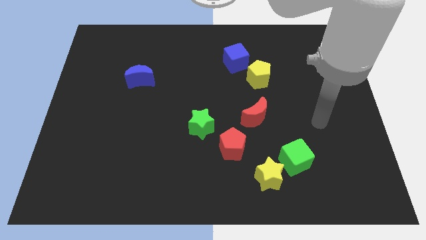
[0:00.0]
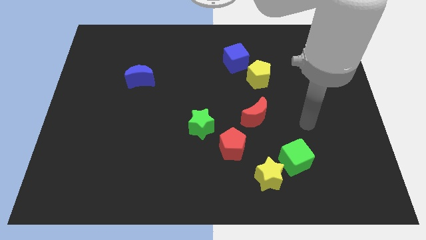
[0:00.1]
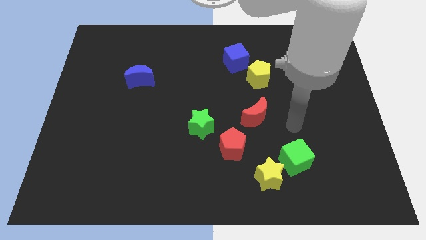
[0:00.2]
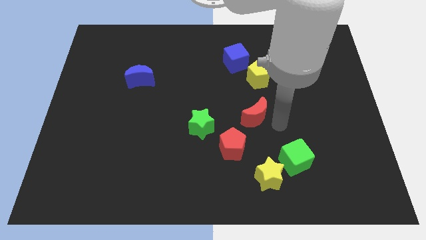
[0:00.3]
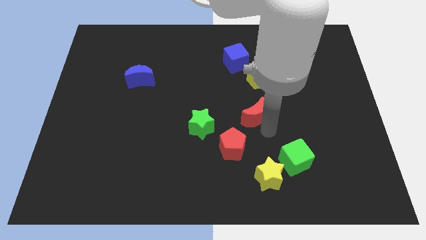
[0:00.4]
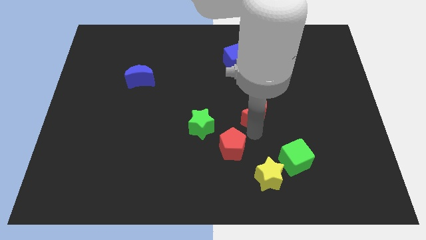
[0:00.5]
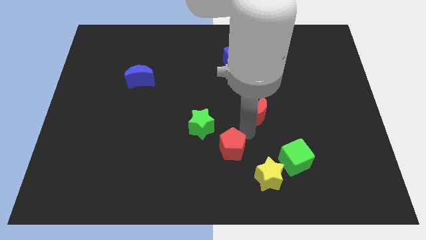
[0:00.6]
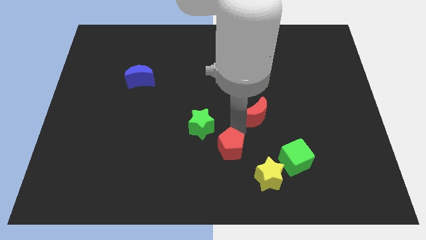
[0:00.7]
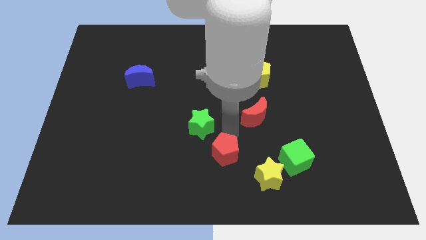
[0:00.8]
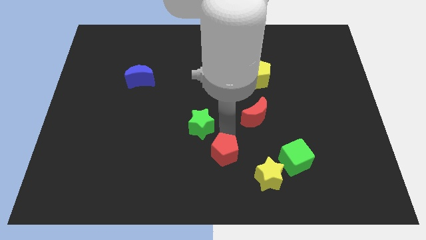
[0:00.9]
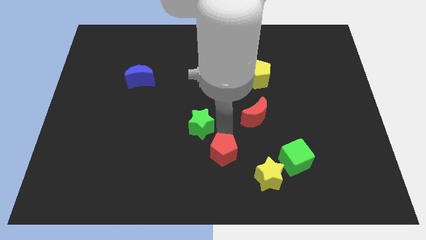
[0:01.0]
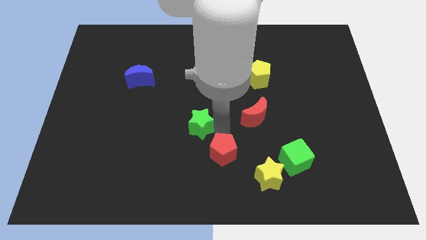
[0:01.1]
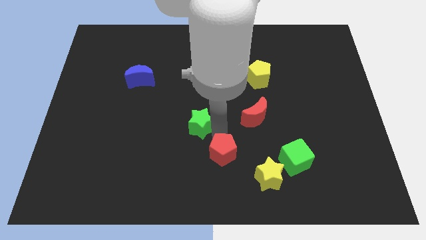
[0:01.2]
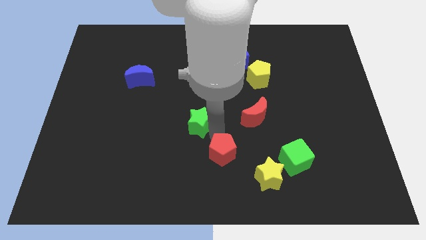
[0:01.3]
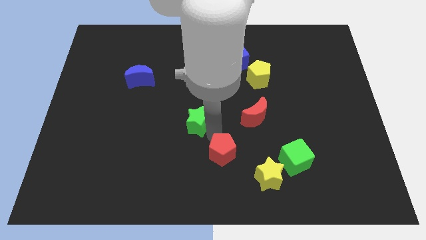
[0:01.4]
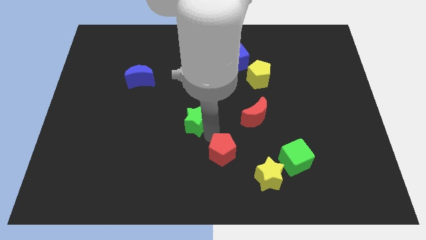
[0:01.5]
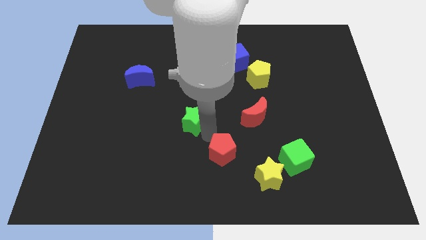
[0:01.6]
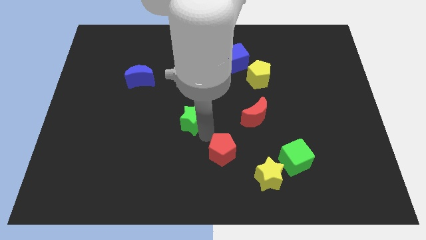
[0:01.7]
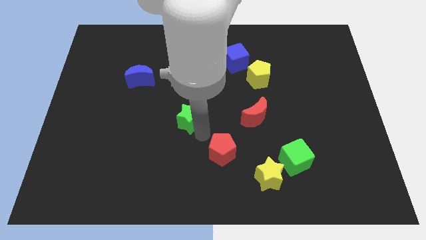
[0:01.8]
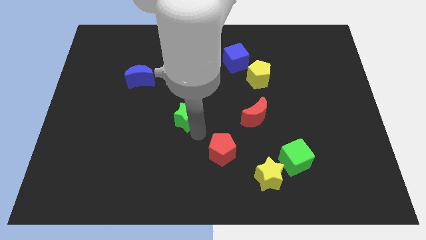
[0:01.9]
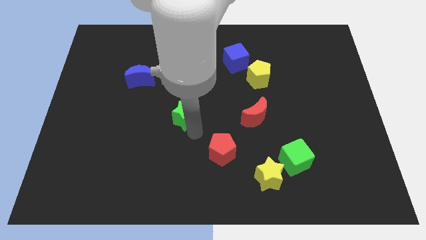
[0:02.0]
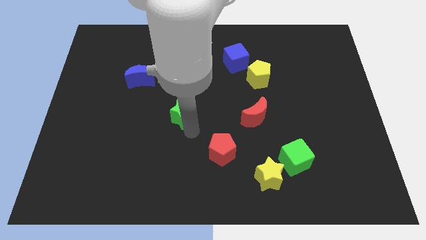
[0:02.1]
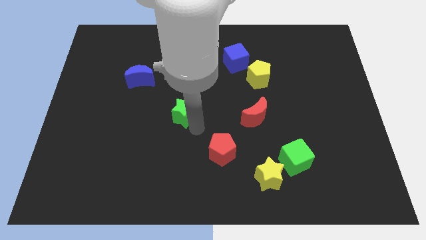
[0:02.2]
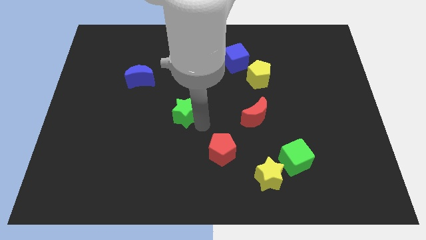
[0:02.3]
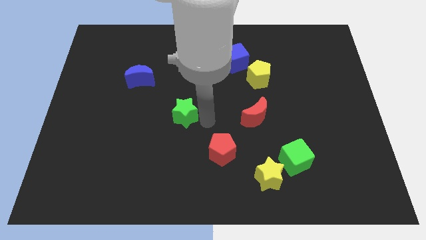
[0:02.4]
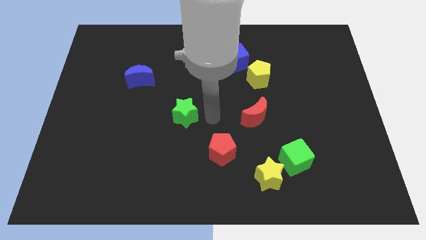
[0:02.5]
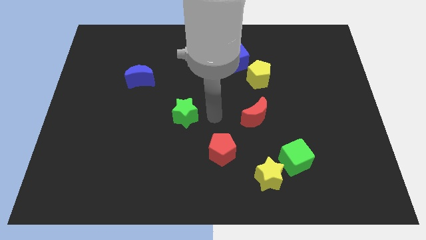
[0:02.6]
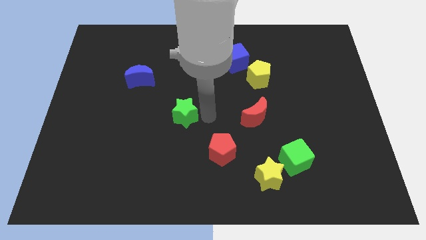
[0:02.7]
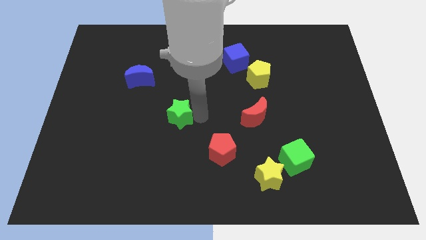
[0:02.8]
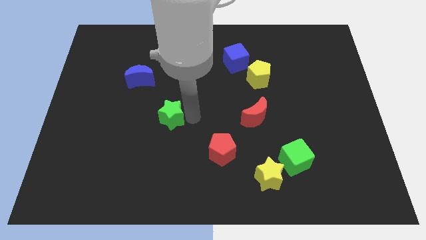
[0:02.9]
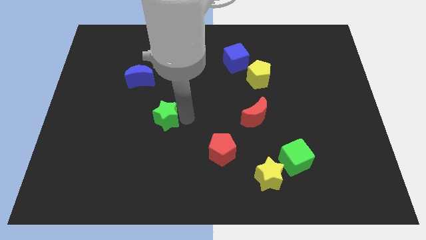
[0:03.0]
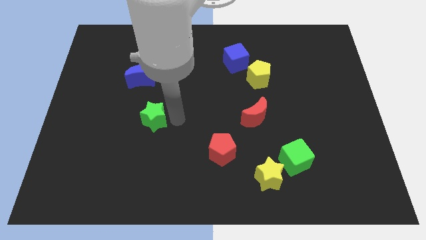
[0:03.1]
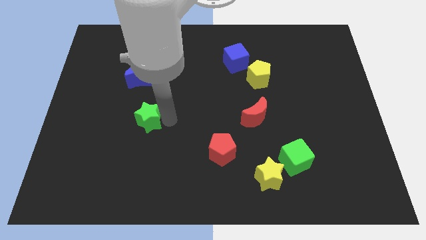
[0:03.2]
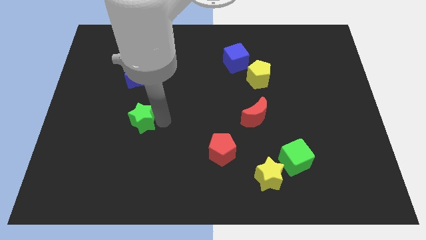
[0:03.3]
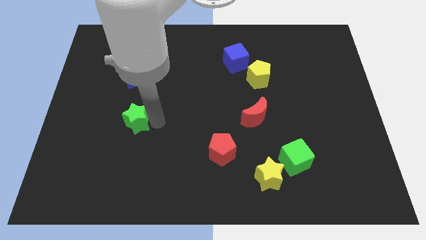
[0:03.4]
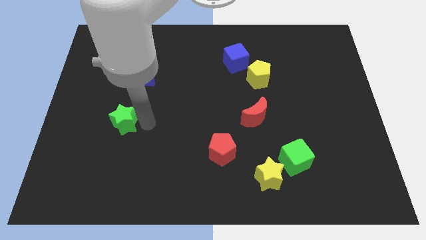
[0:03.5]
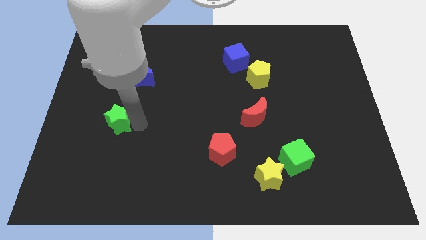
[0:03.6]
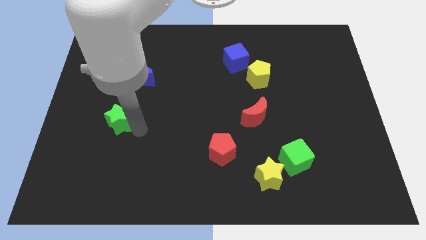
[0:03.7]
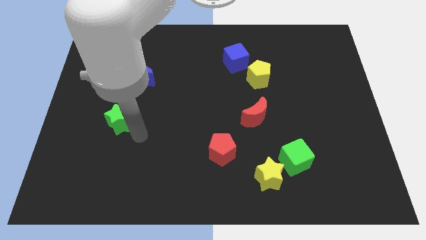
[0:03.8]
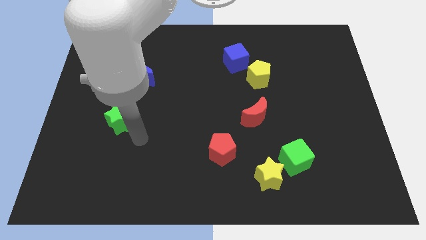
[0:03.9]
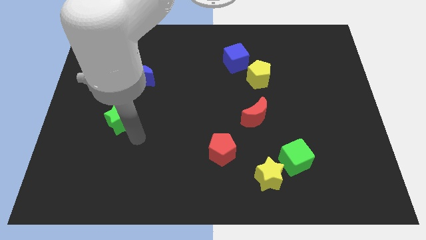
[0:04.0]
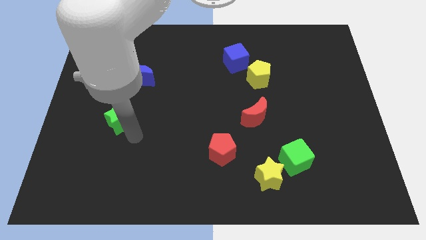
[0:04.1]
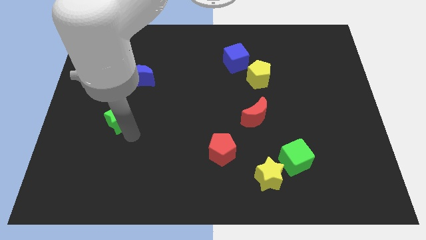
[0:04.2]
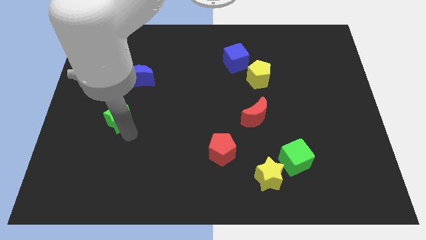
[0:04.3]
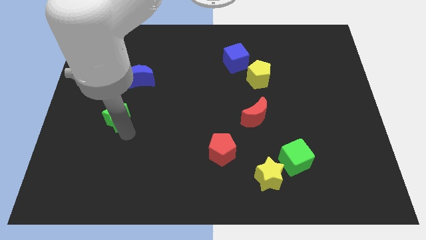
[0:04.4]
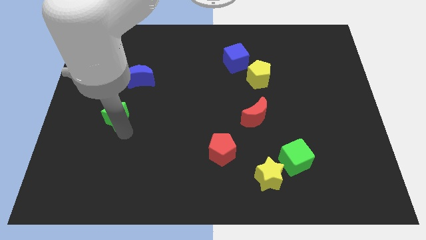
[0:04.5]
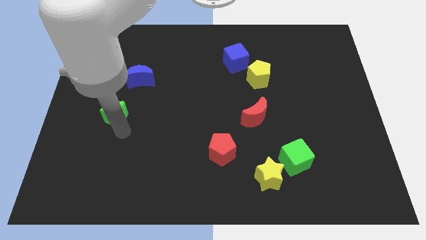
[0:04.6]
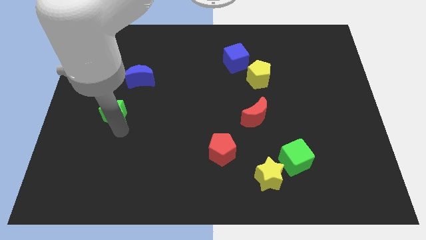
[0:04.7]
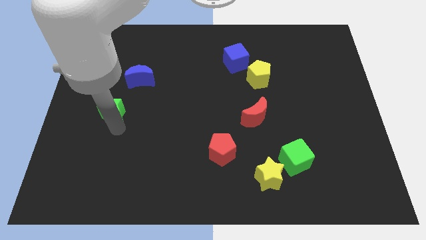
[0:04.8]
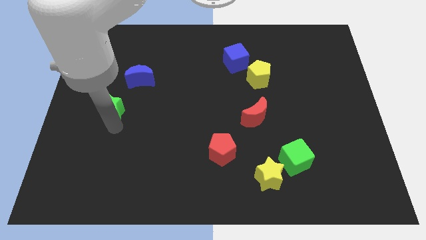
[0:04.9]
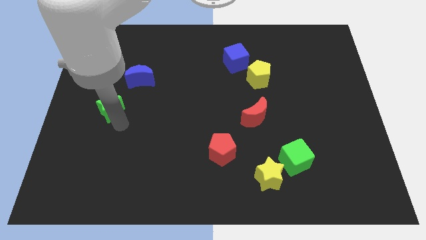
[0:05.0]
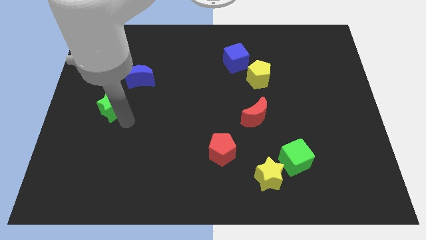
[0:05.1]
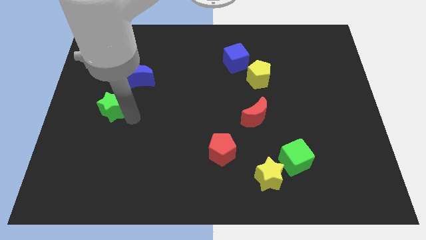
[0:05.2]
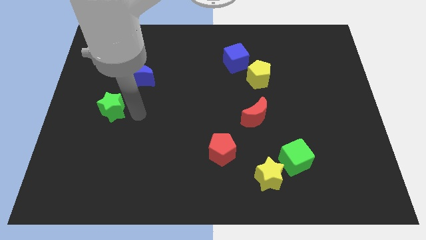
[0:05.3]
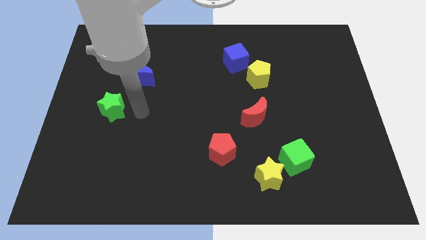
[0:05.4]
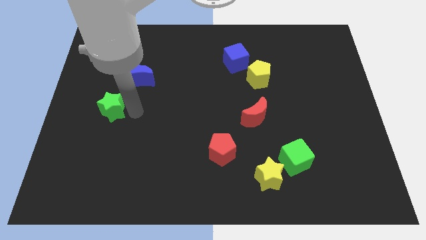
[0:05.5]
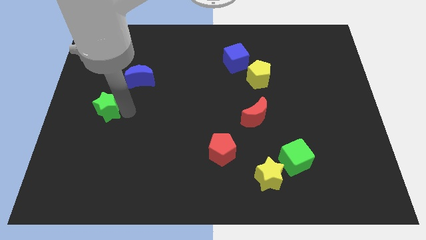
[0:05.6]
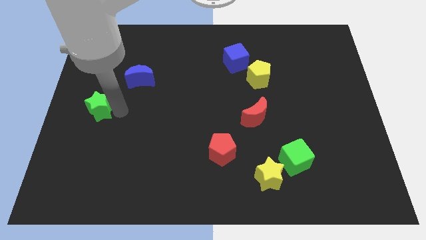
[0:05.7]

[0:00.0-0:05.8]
push the green star to the left side of the board

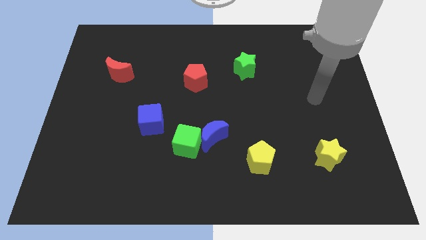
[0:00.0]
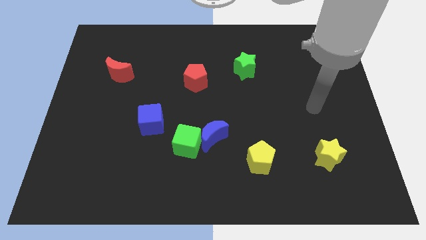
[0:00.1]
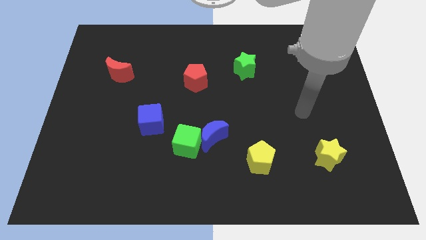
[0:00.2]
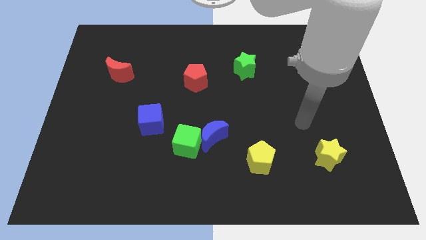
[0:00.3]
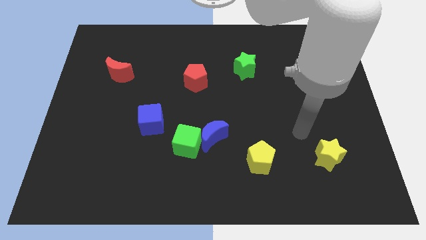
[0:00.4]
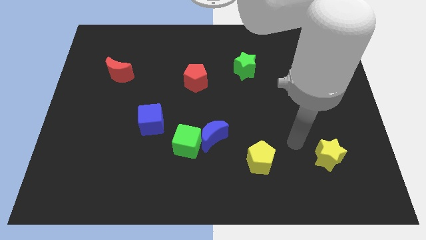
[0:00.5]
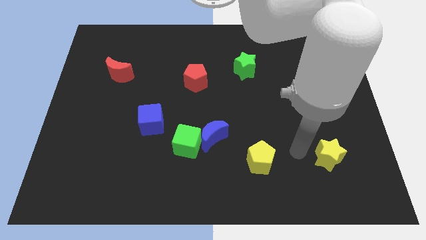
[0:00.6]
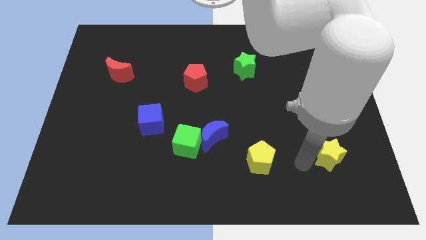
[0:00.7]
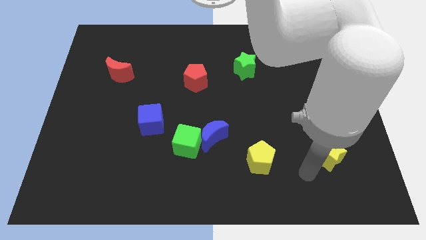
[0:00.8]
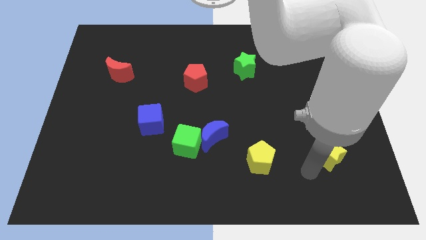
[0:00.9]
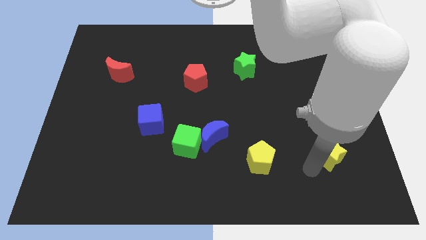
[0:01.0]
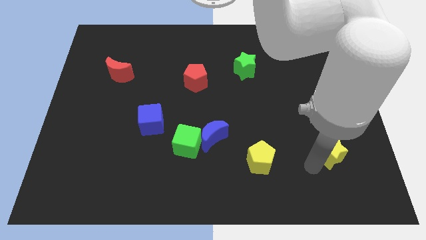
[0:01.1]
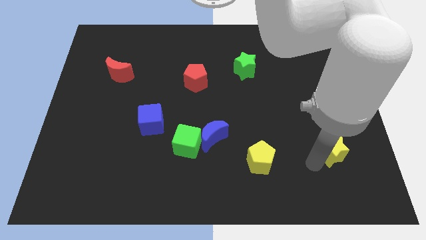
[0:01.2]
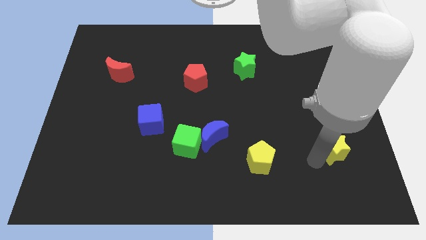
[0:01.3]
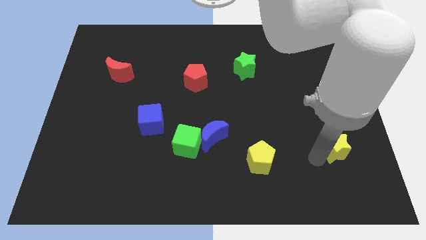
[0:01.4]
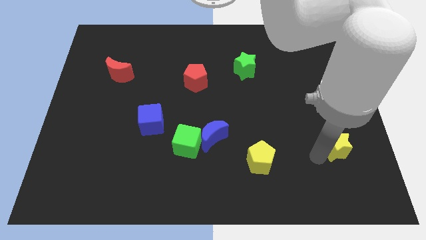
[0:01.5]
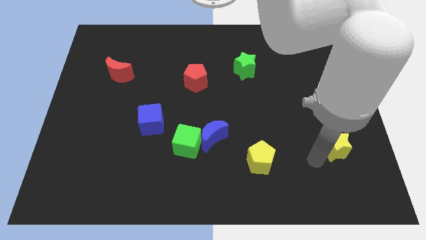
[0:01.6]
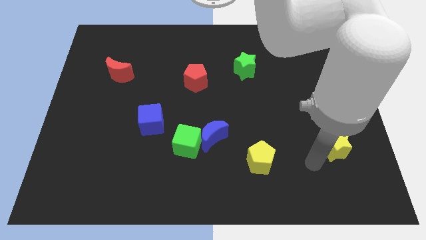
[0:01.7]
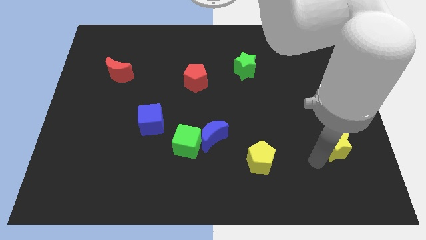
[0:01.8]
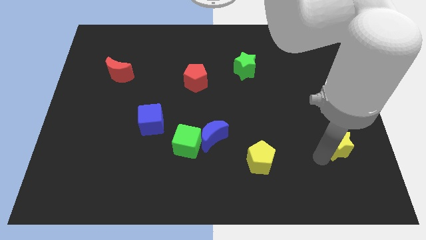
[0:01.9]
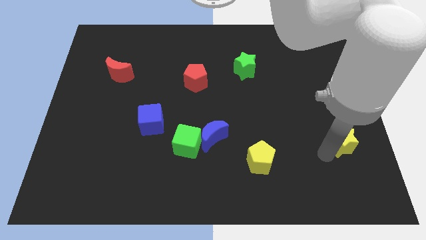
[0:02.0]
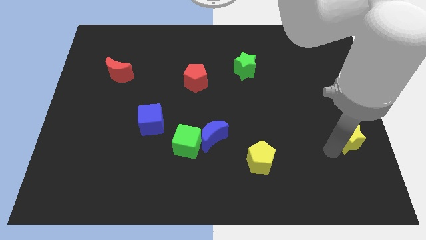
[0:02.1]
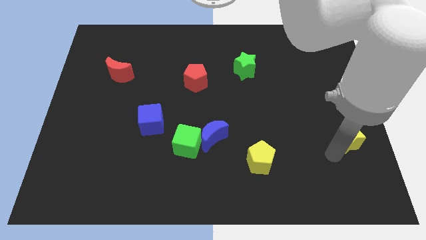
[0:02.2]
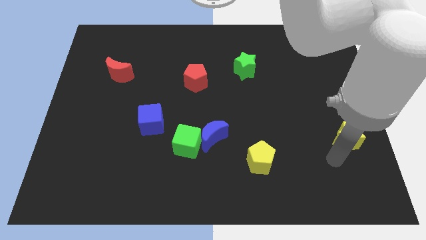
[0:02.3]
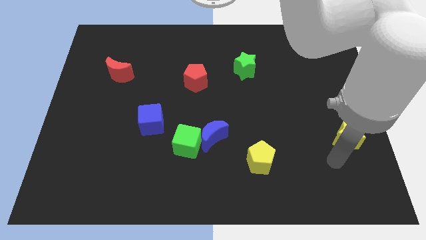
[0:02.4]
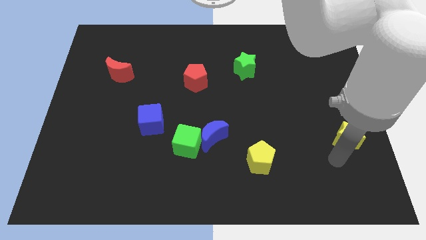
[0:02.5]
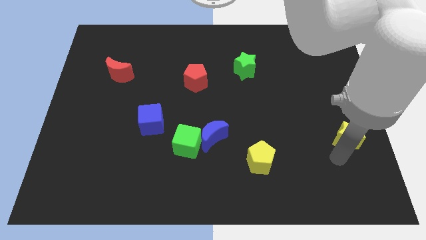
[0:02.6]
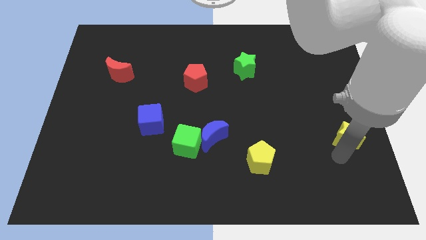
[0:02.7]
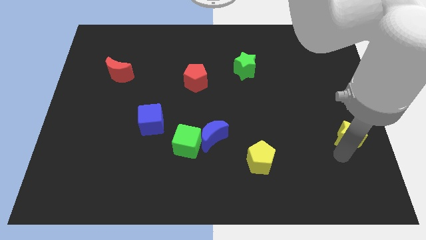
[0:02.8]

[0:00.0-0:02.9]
put the yellow star to the right side of the board
